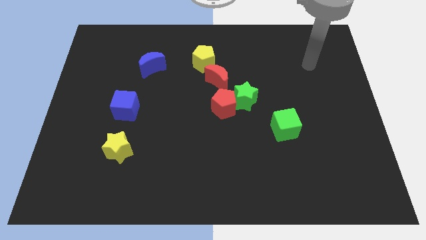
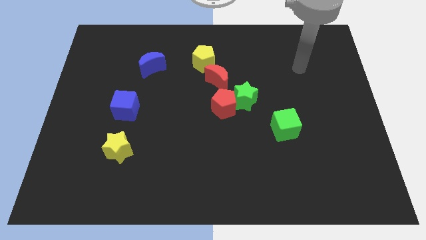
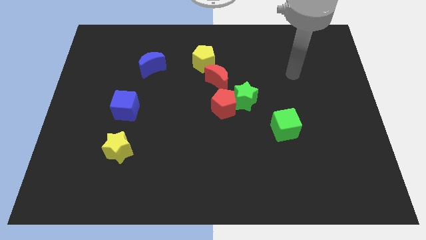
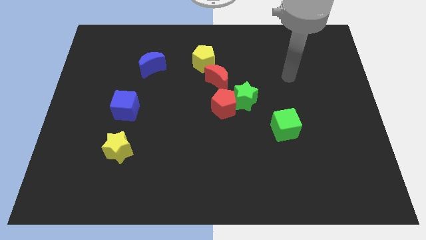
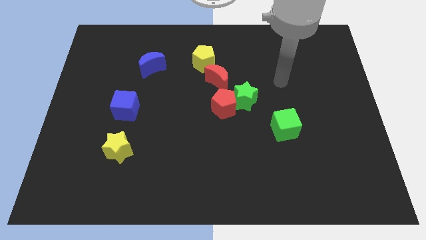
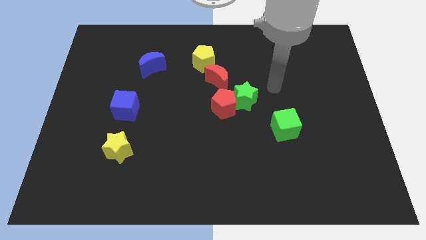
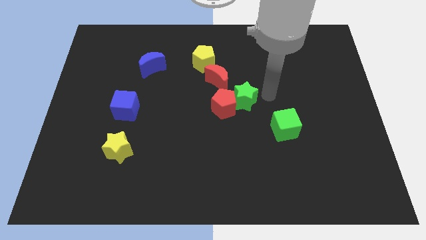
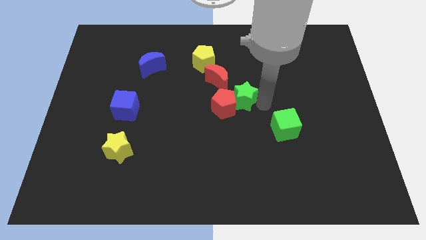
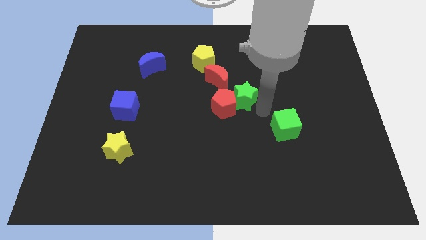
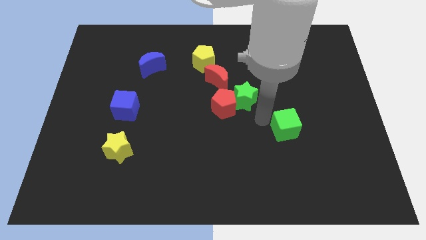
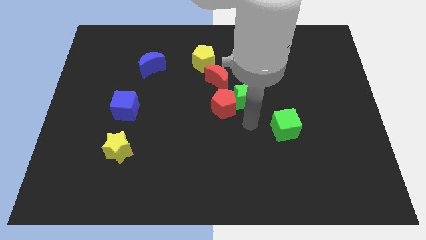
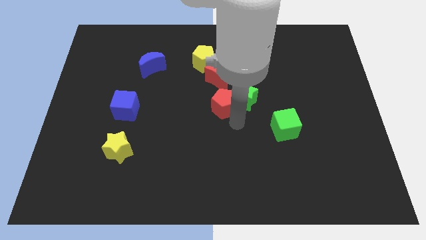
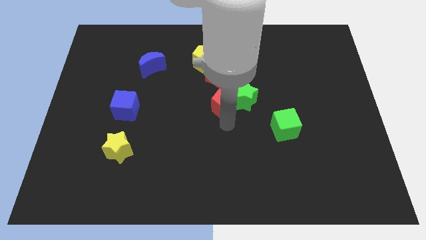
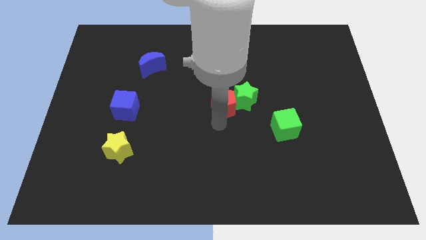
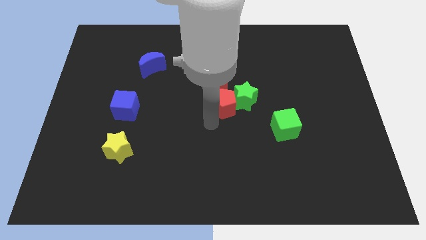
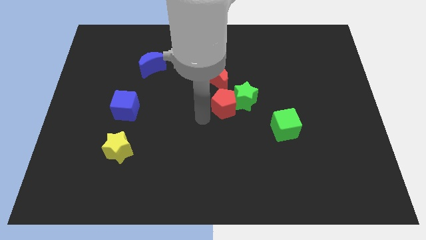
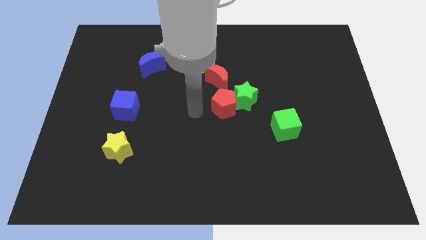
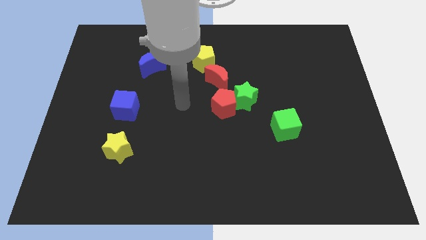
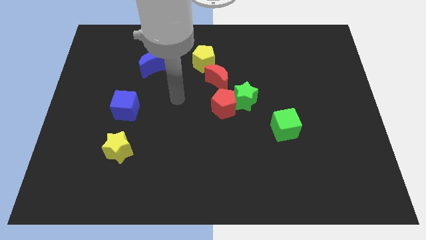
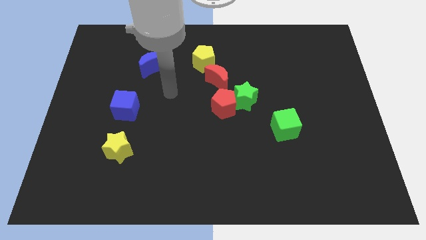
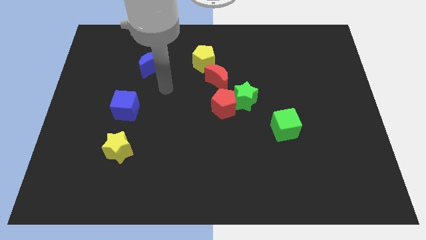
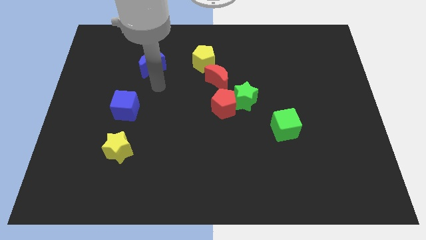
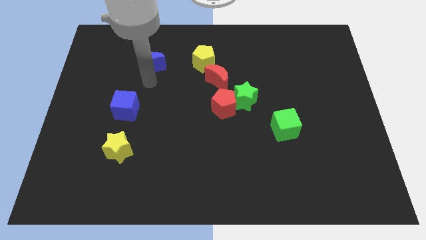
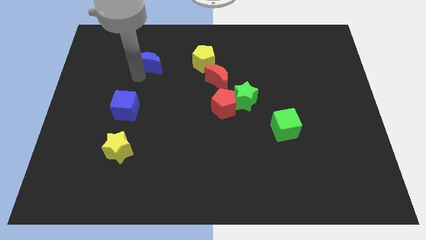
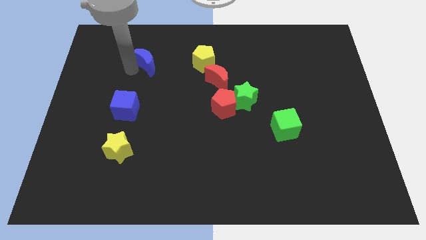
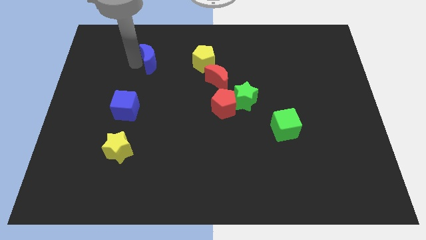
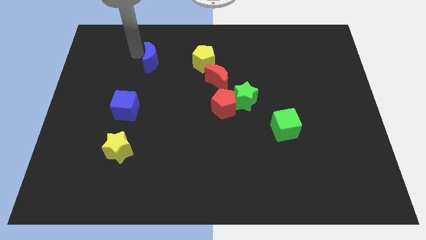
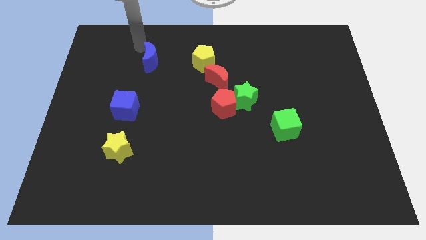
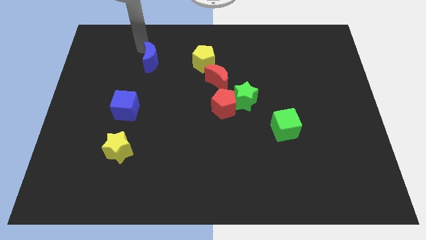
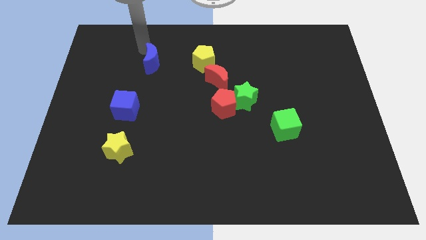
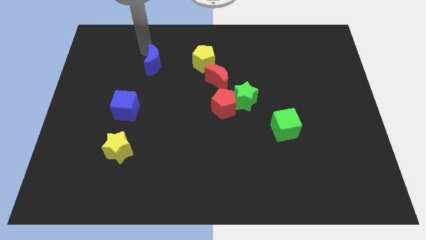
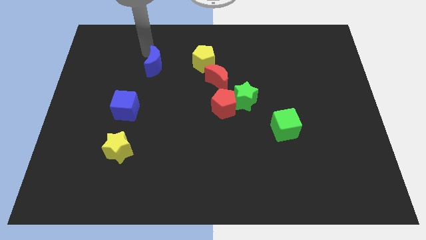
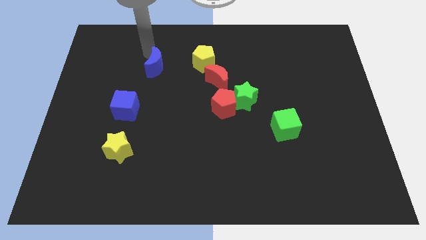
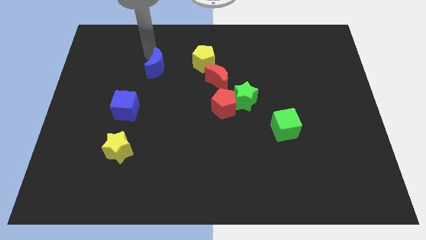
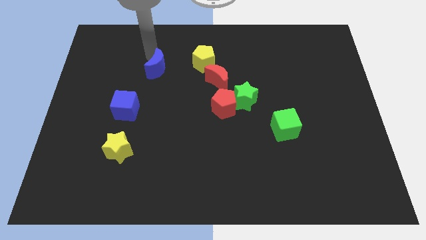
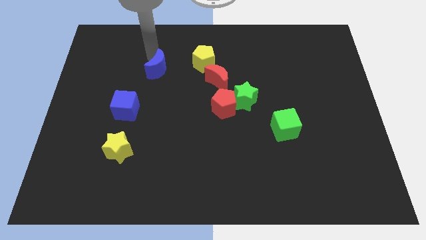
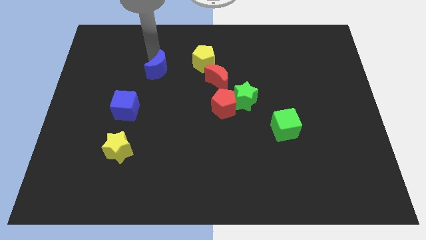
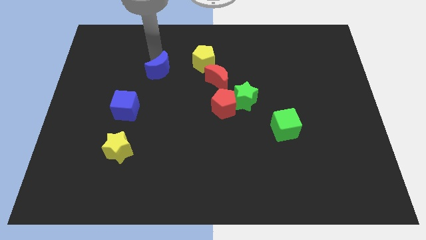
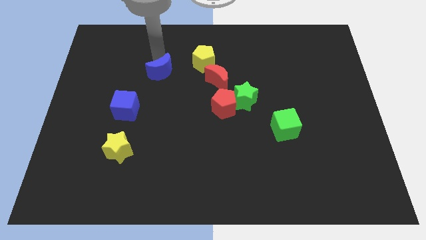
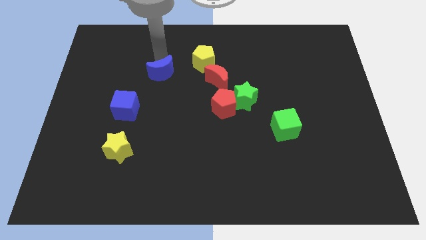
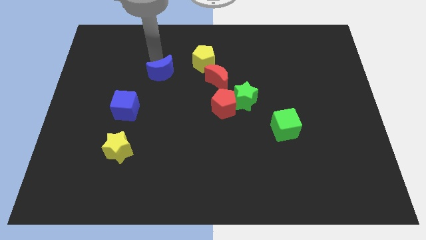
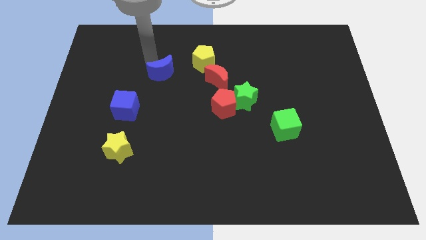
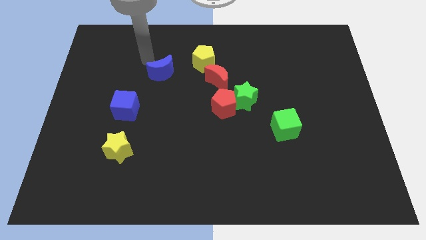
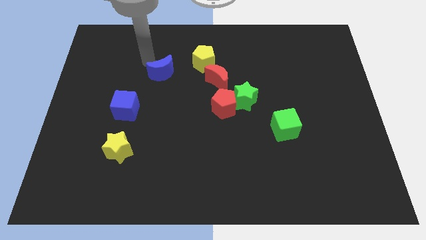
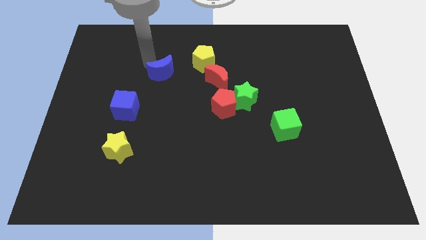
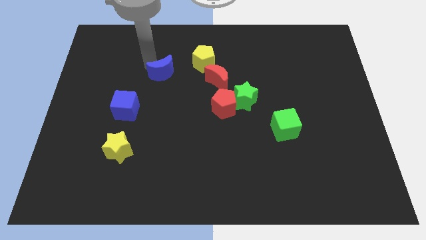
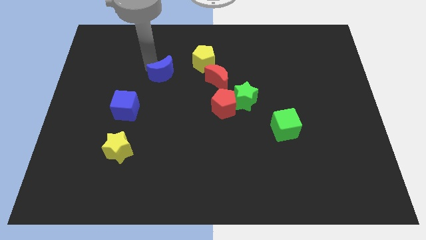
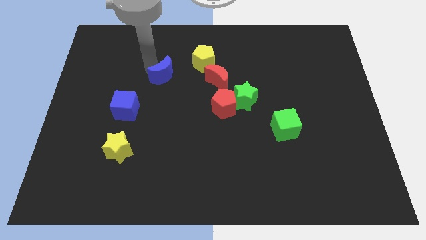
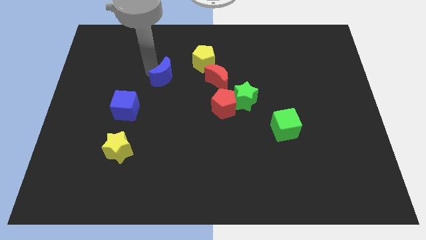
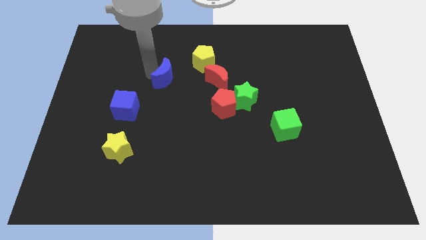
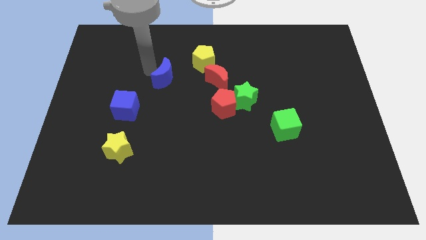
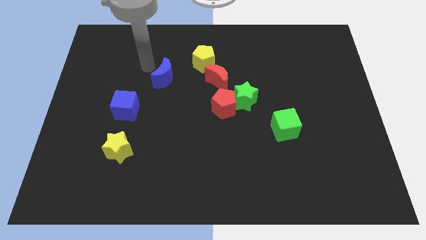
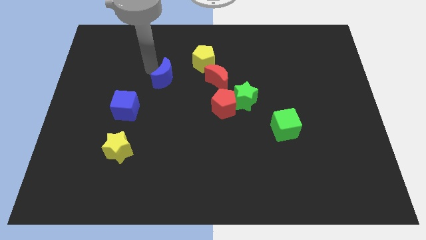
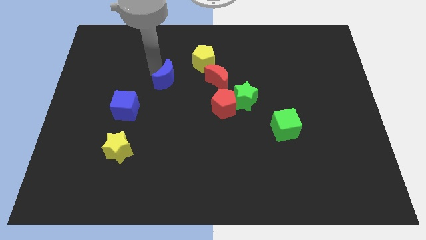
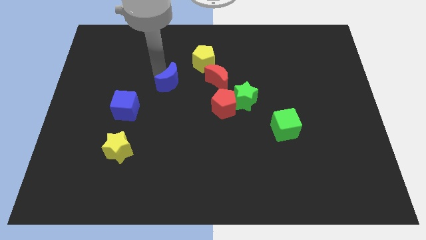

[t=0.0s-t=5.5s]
slide the blue moon diagonally downwards and right a little

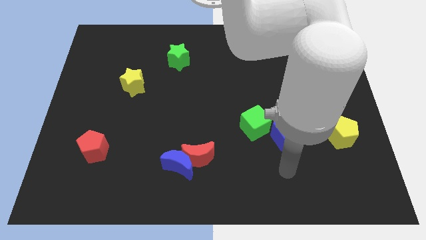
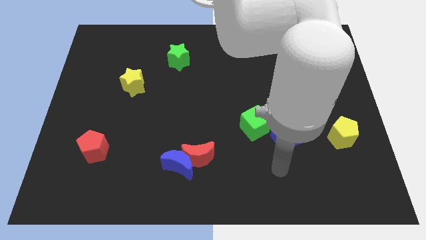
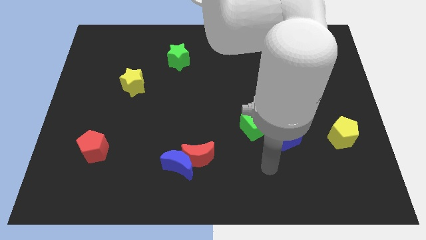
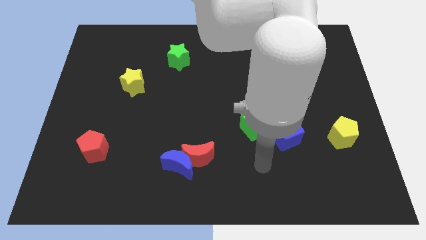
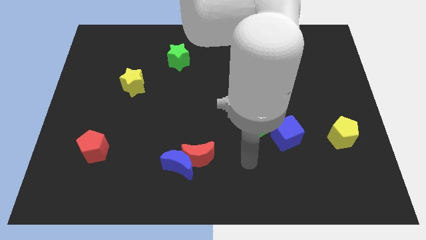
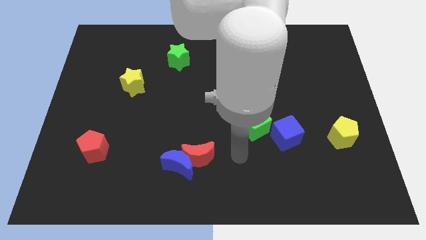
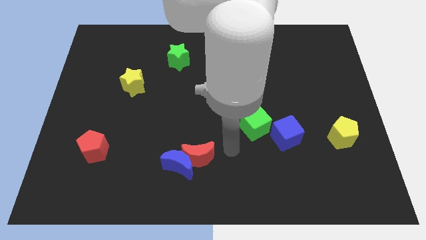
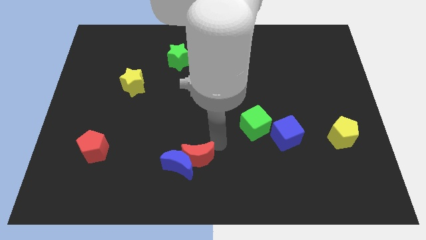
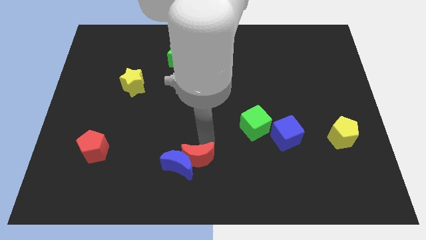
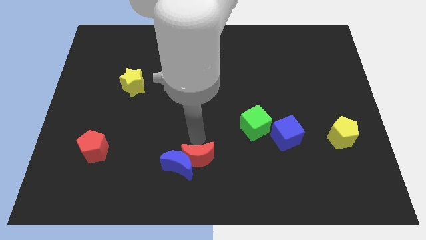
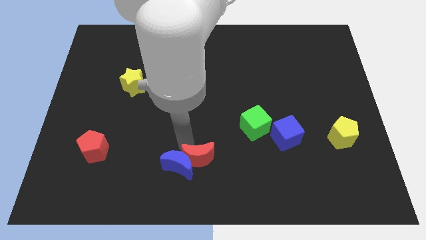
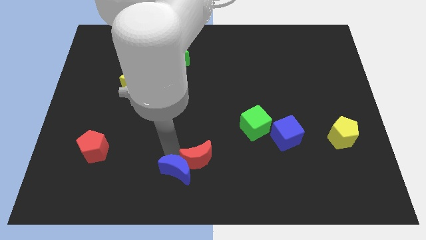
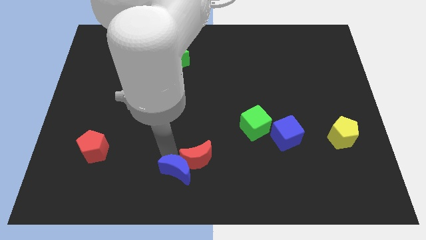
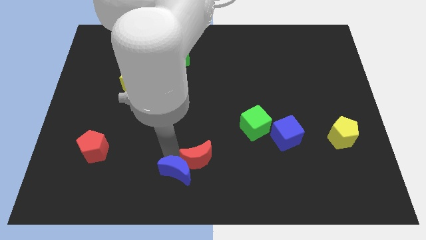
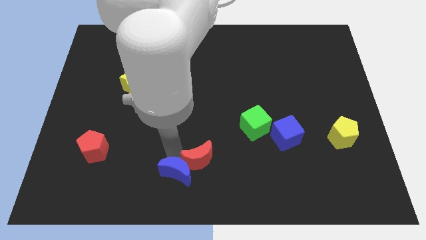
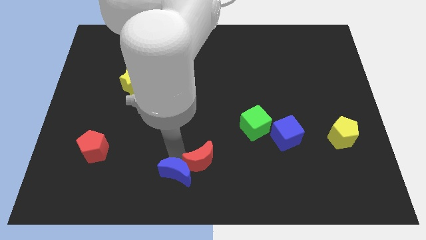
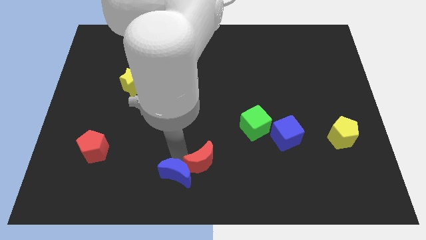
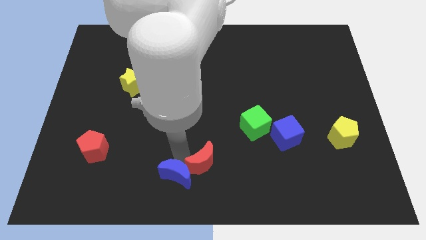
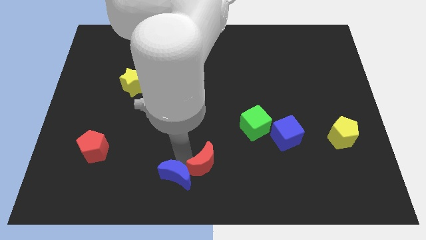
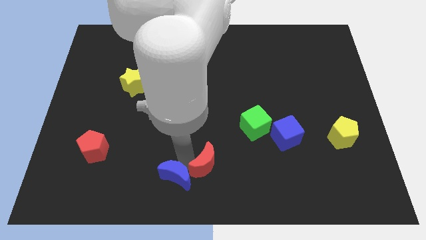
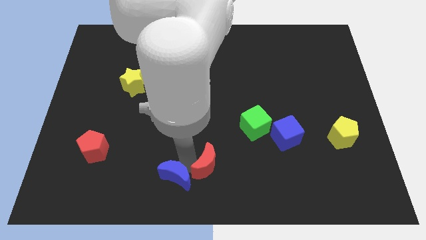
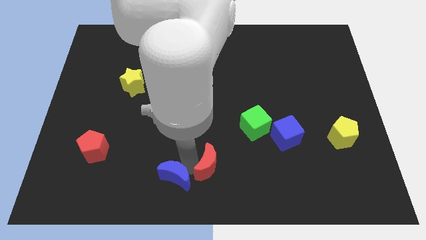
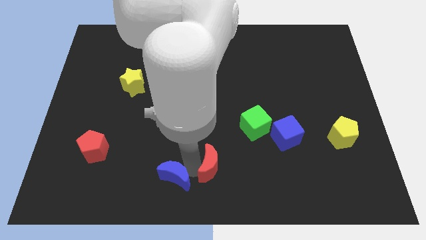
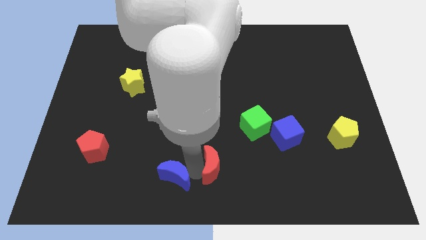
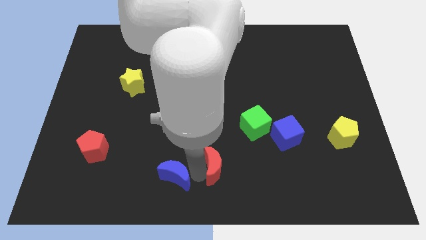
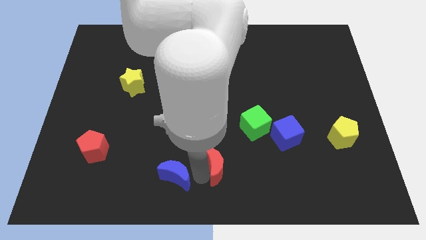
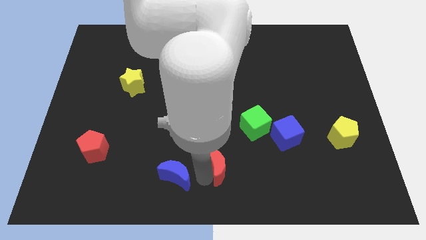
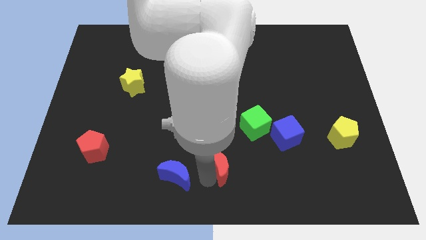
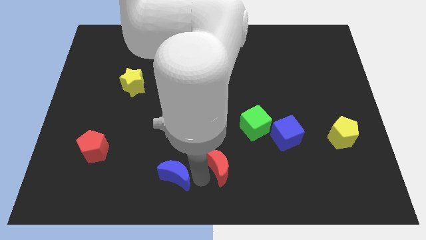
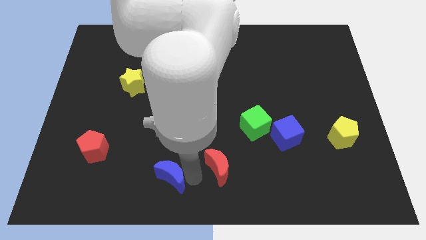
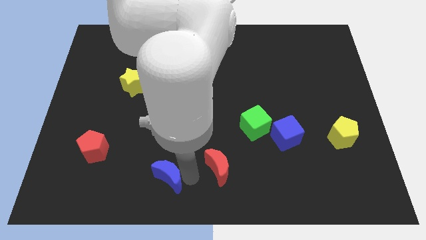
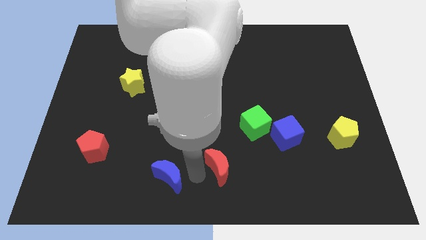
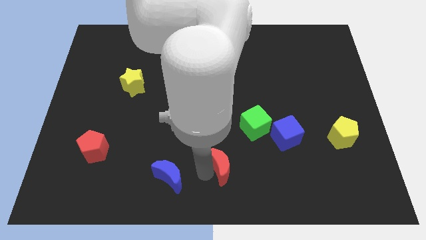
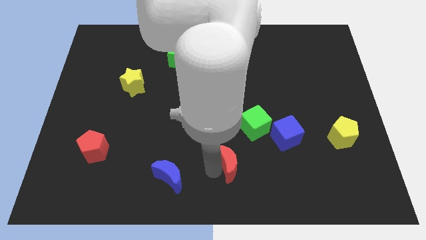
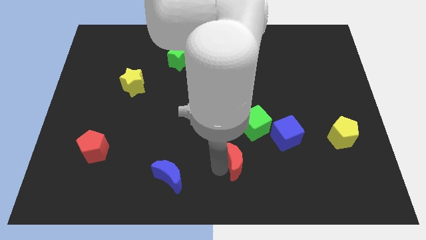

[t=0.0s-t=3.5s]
slide the red moon right somewhat
